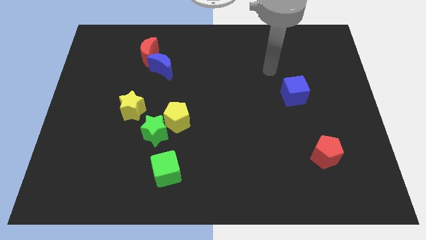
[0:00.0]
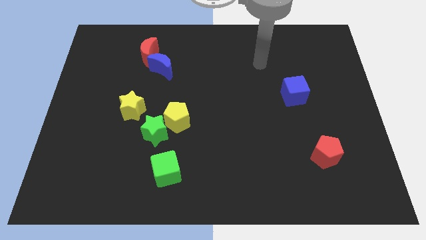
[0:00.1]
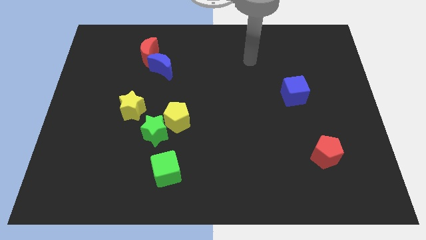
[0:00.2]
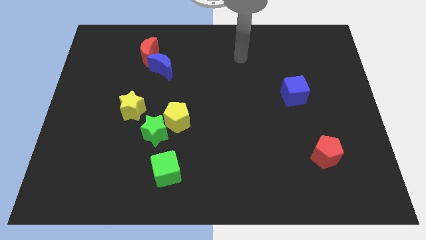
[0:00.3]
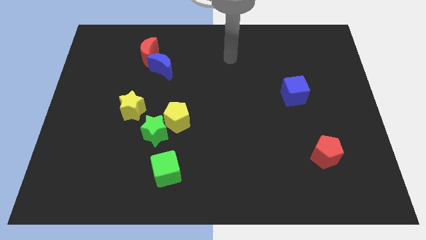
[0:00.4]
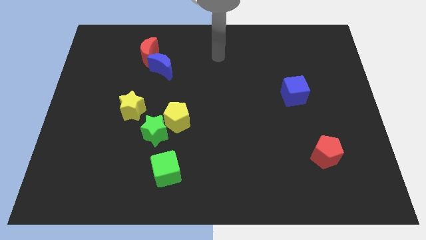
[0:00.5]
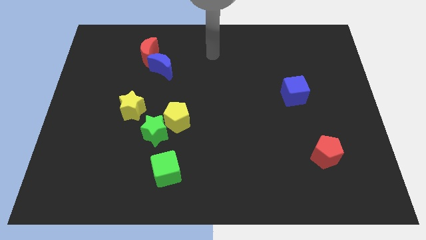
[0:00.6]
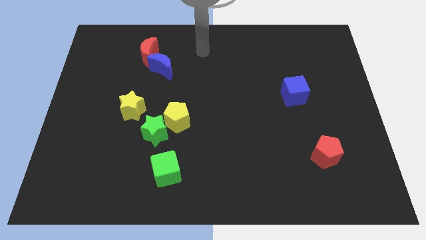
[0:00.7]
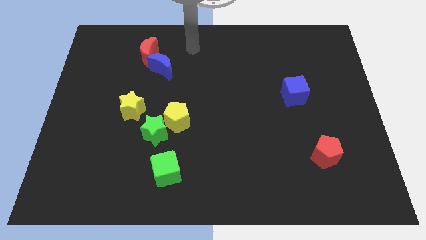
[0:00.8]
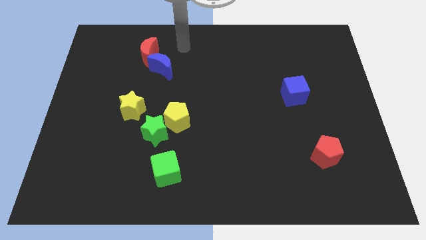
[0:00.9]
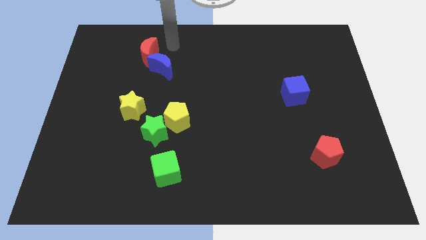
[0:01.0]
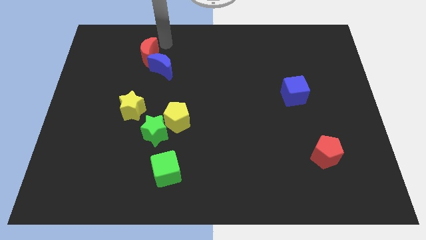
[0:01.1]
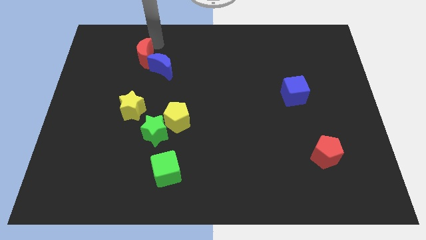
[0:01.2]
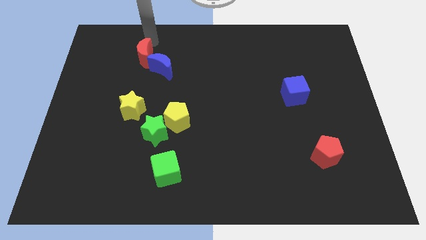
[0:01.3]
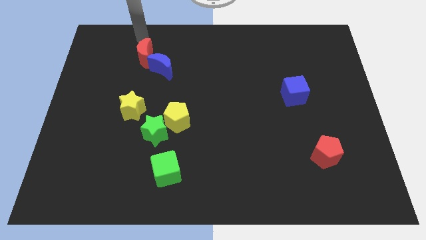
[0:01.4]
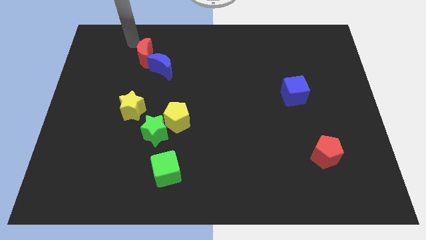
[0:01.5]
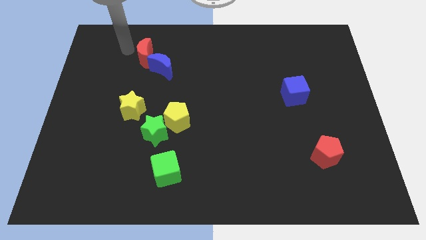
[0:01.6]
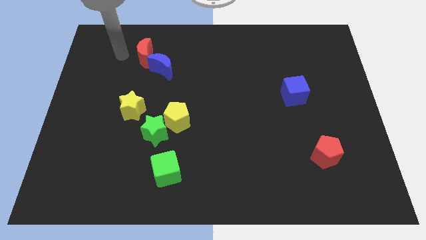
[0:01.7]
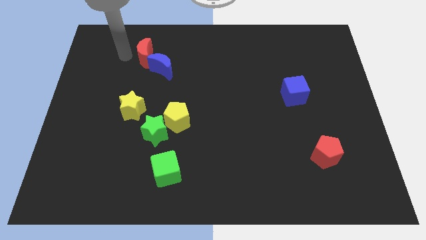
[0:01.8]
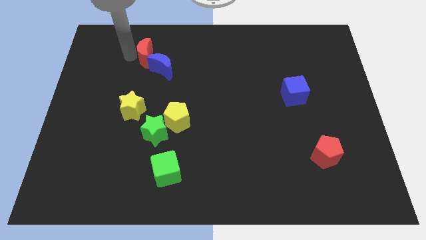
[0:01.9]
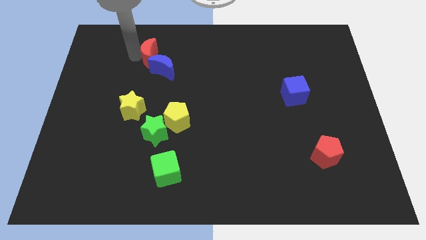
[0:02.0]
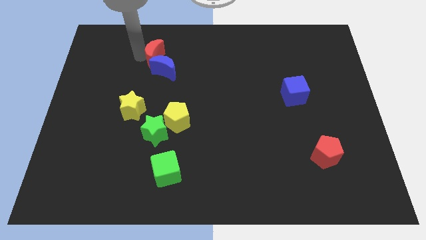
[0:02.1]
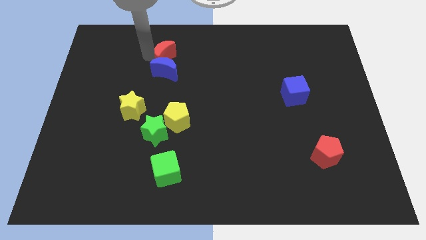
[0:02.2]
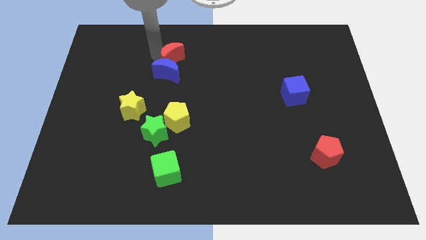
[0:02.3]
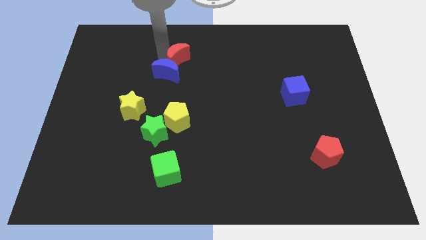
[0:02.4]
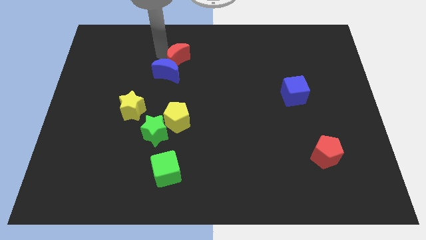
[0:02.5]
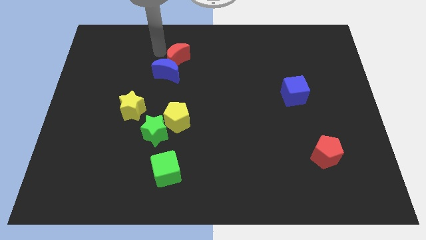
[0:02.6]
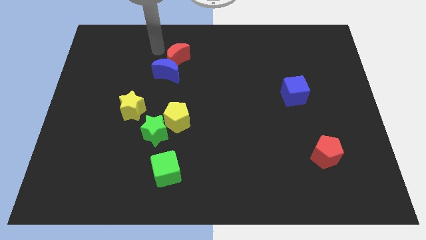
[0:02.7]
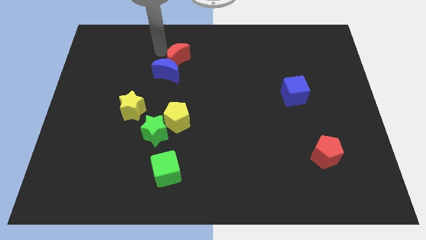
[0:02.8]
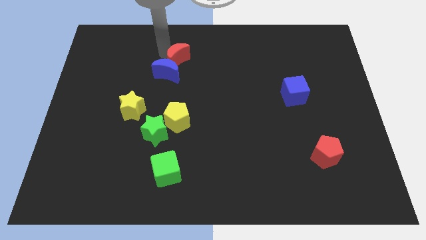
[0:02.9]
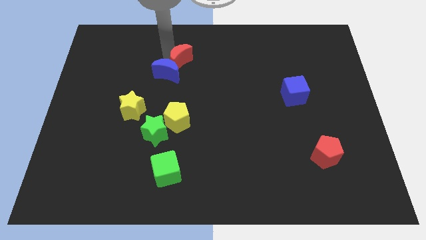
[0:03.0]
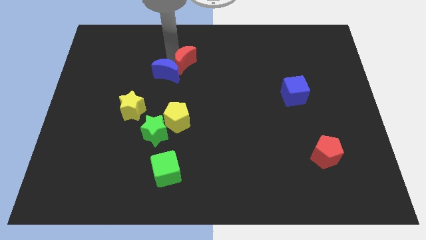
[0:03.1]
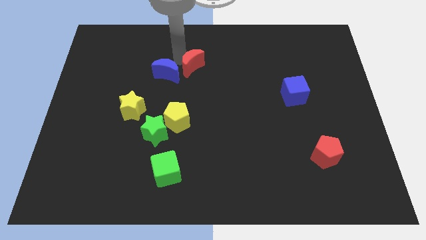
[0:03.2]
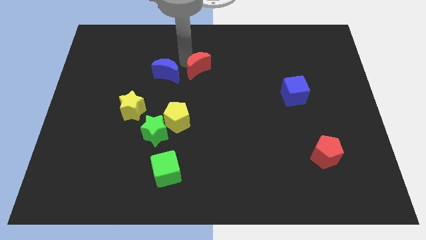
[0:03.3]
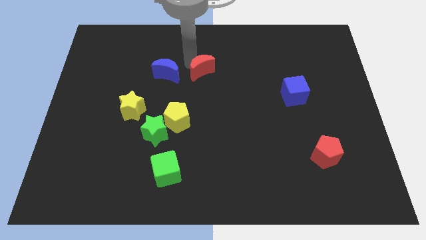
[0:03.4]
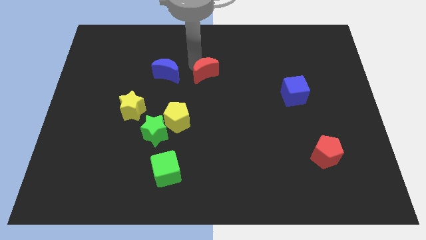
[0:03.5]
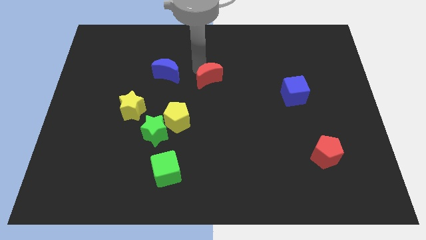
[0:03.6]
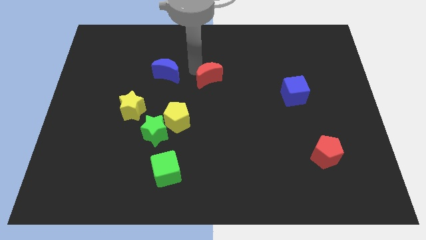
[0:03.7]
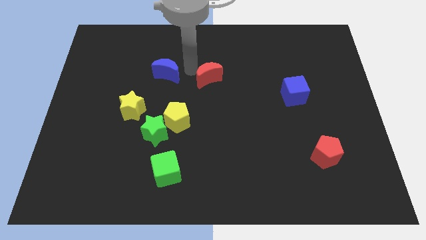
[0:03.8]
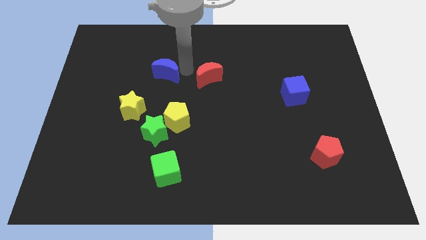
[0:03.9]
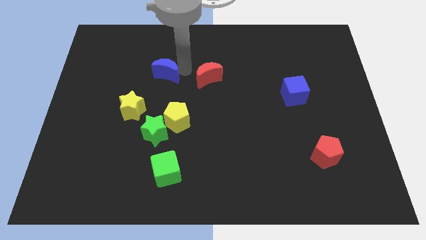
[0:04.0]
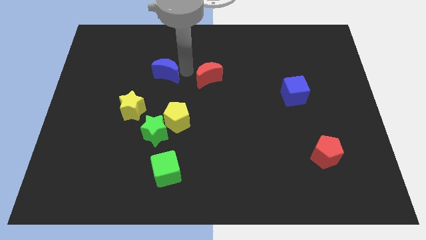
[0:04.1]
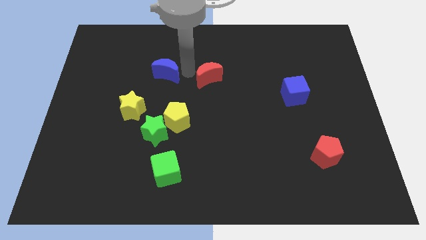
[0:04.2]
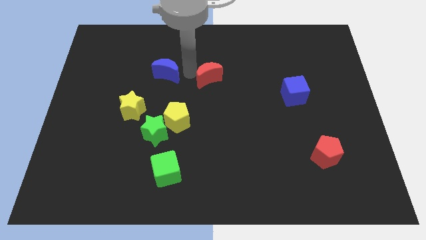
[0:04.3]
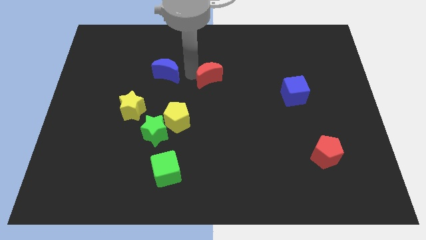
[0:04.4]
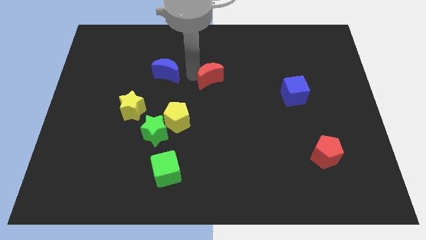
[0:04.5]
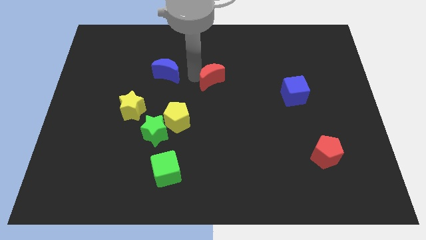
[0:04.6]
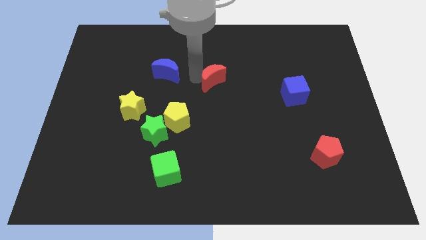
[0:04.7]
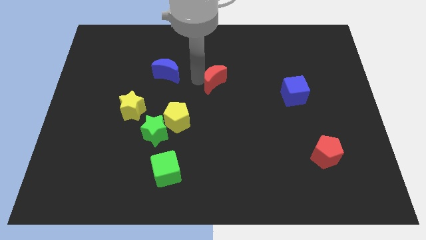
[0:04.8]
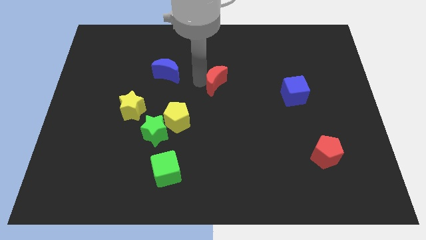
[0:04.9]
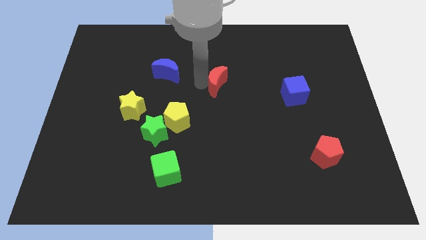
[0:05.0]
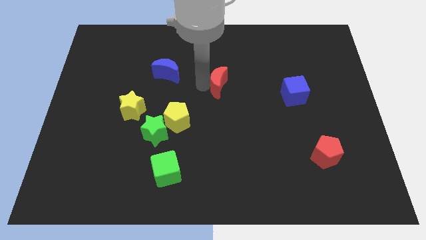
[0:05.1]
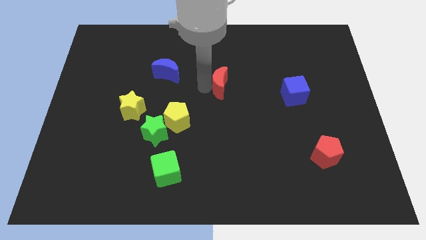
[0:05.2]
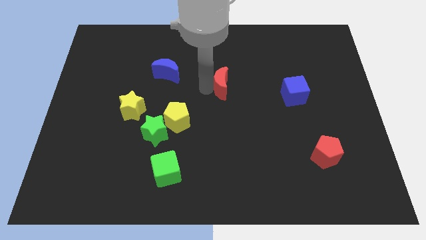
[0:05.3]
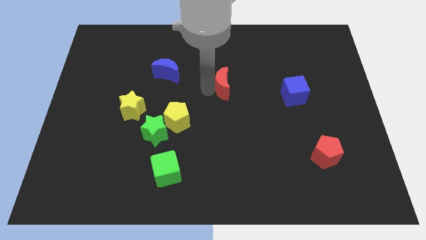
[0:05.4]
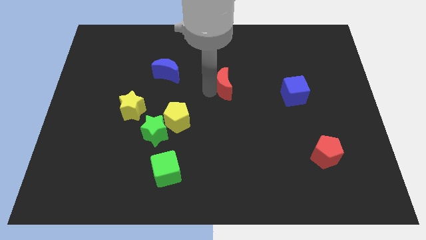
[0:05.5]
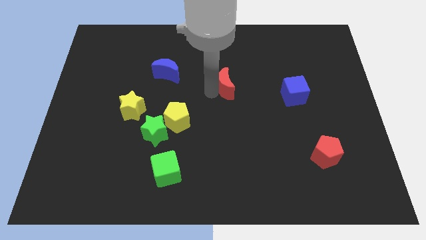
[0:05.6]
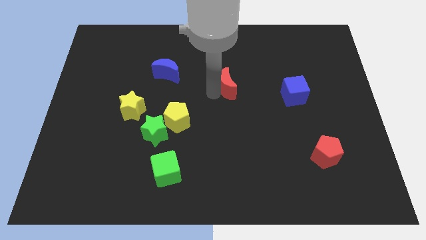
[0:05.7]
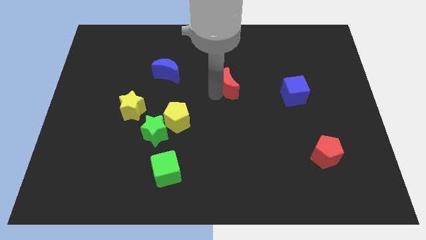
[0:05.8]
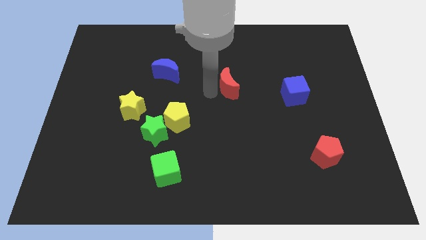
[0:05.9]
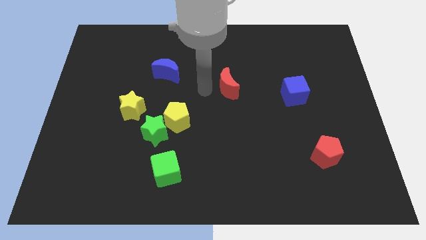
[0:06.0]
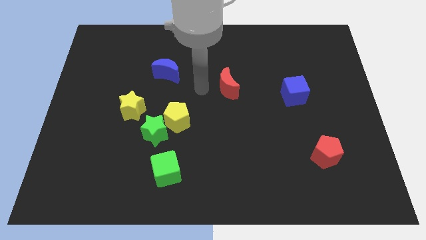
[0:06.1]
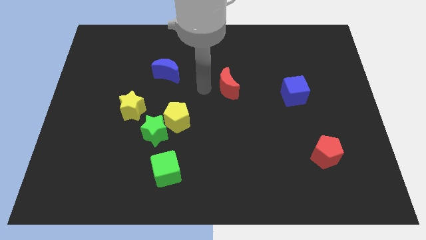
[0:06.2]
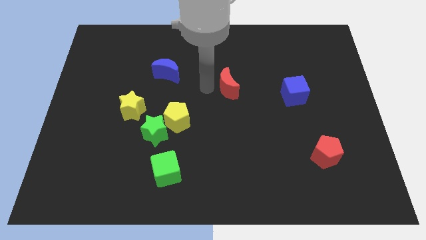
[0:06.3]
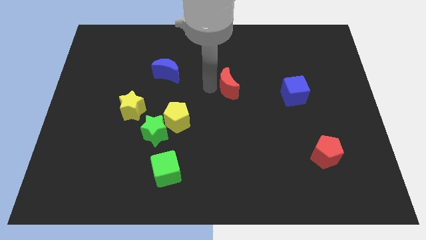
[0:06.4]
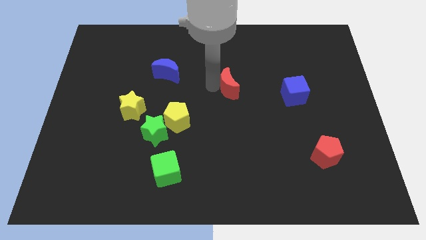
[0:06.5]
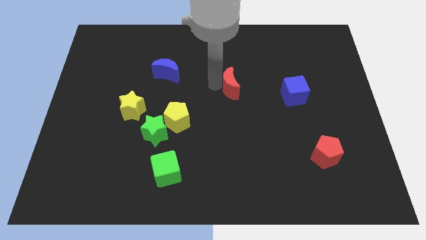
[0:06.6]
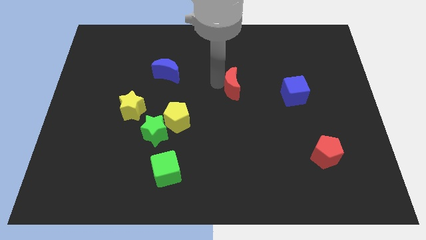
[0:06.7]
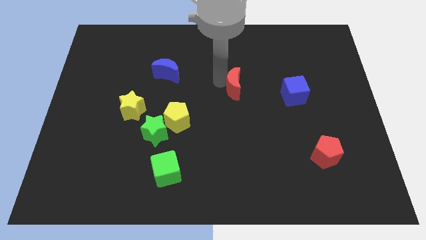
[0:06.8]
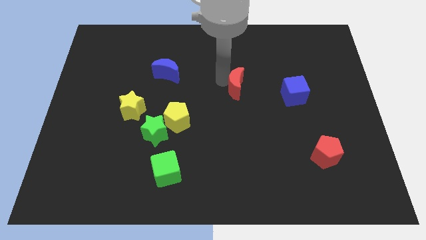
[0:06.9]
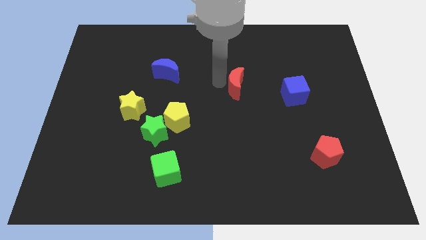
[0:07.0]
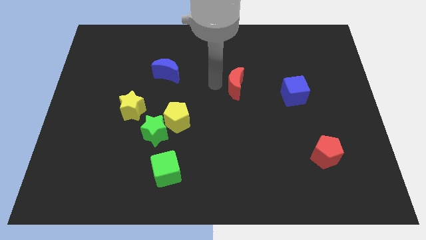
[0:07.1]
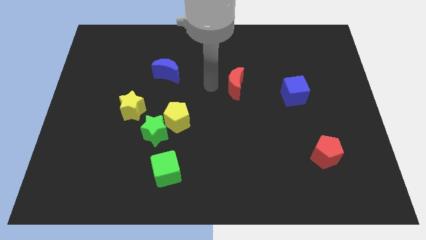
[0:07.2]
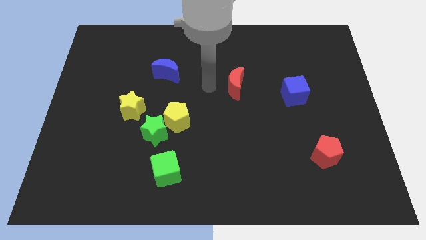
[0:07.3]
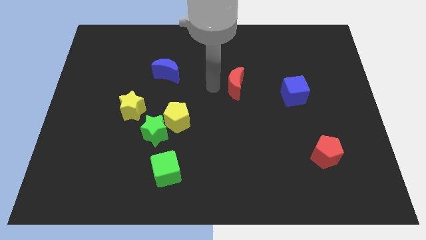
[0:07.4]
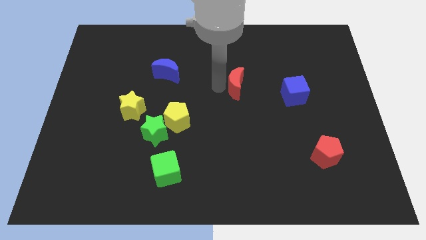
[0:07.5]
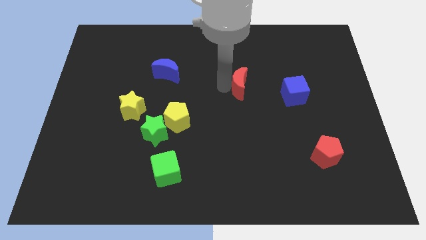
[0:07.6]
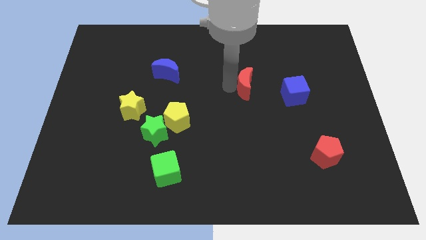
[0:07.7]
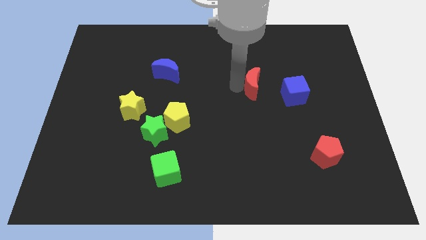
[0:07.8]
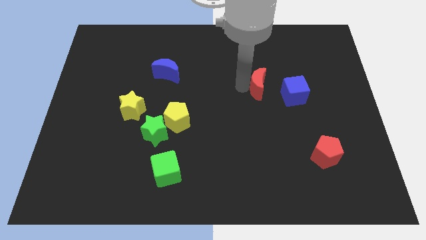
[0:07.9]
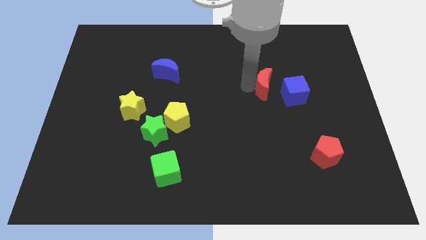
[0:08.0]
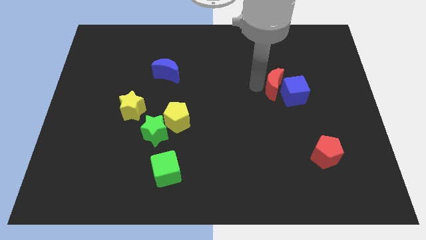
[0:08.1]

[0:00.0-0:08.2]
push the red moon to the blue cube
